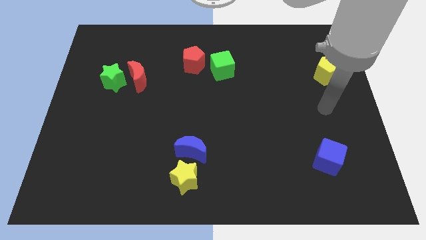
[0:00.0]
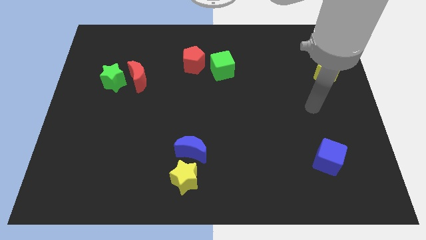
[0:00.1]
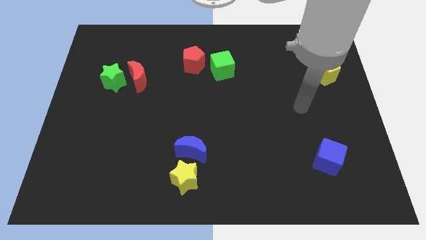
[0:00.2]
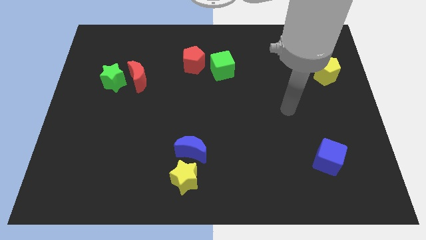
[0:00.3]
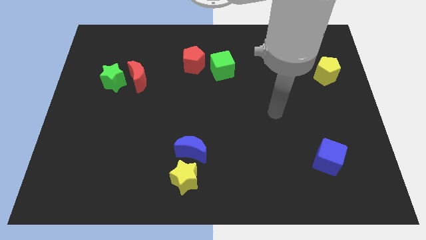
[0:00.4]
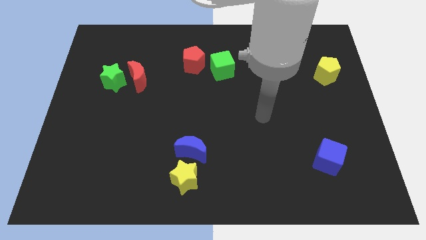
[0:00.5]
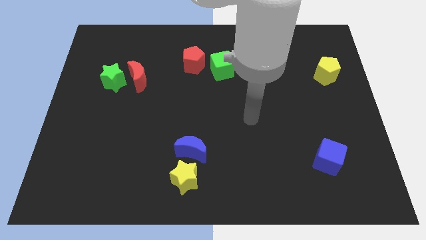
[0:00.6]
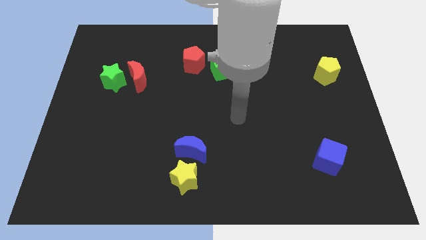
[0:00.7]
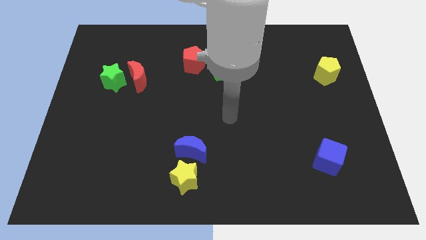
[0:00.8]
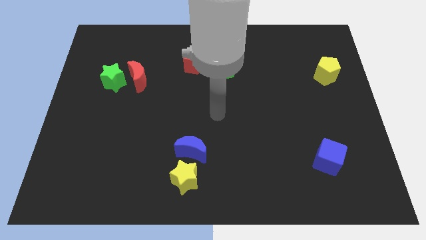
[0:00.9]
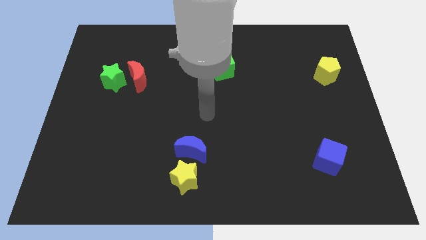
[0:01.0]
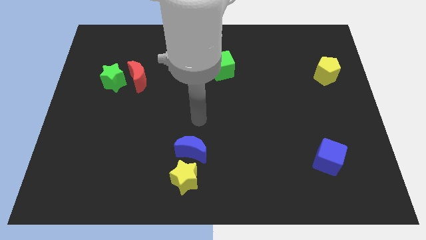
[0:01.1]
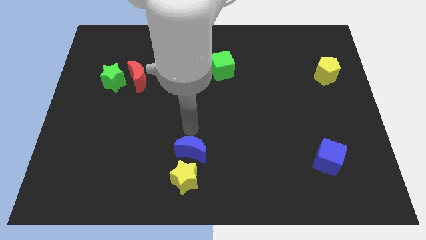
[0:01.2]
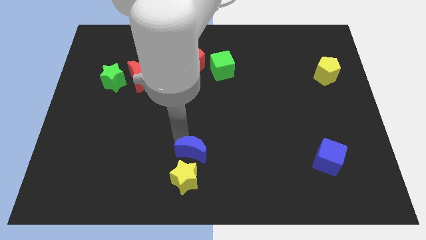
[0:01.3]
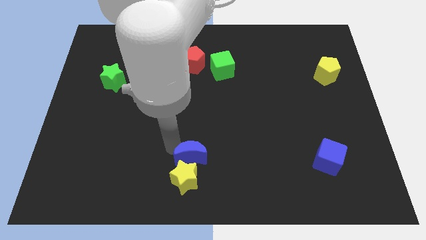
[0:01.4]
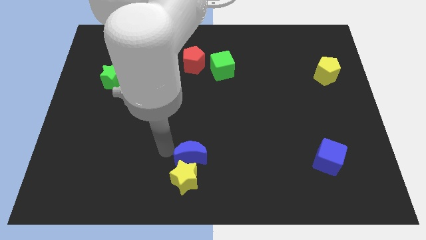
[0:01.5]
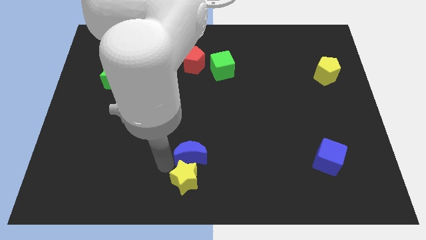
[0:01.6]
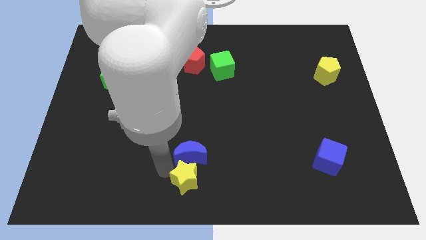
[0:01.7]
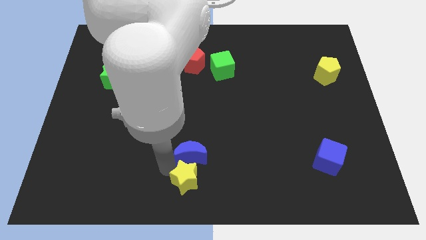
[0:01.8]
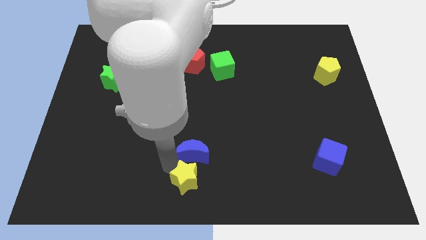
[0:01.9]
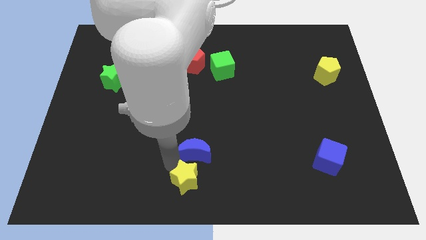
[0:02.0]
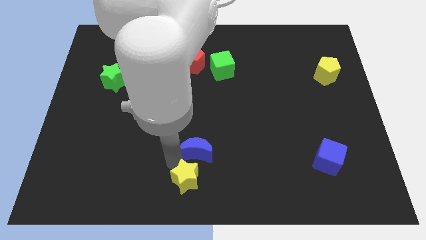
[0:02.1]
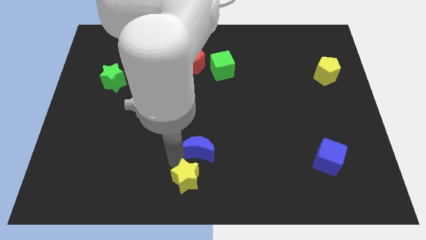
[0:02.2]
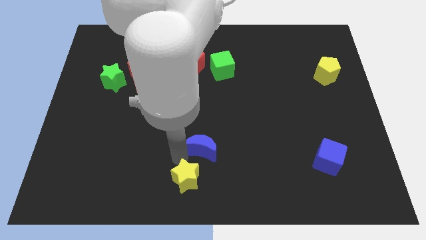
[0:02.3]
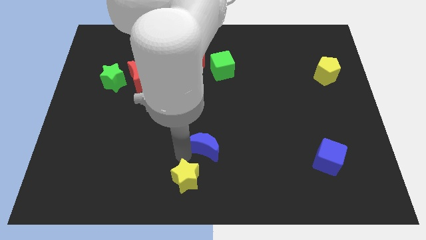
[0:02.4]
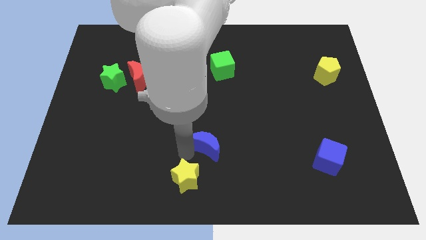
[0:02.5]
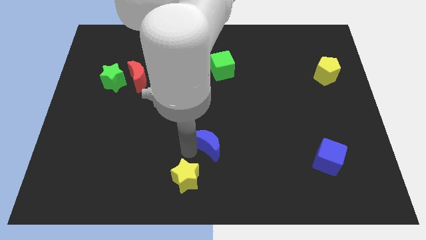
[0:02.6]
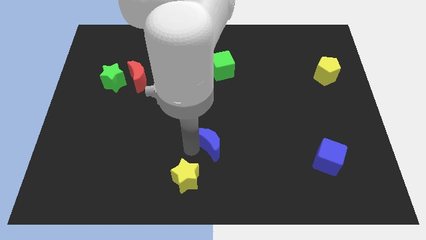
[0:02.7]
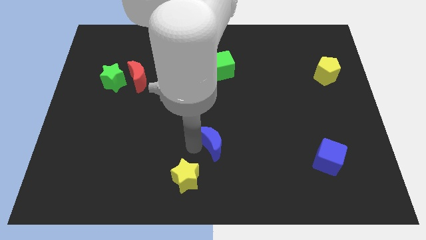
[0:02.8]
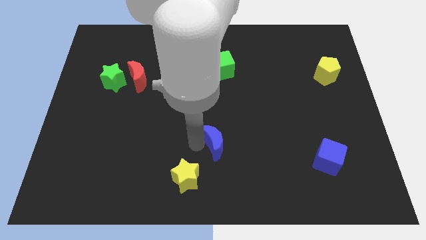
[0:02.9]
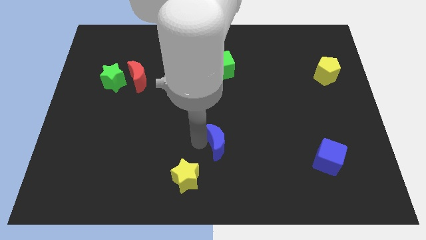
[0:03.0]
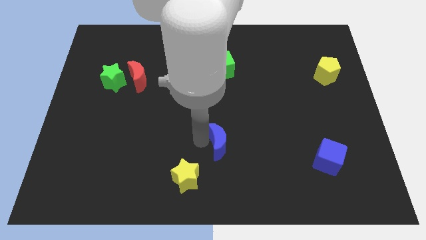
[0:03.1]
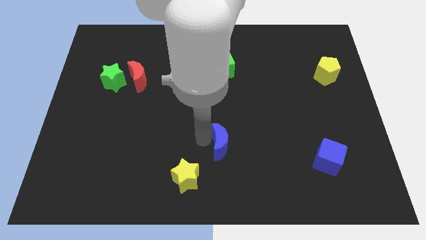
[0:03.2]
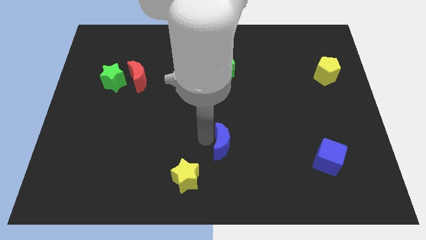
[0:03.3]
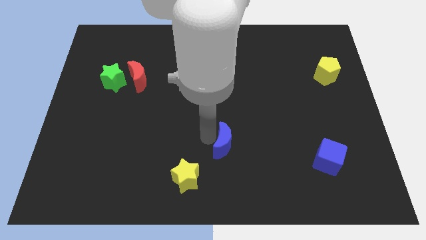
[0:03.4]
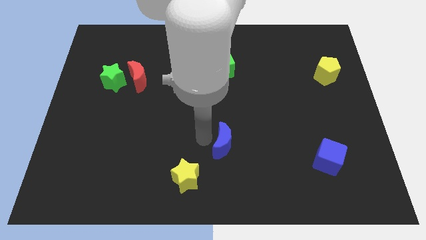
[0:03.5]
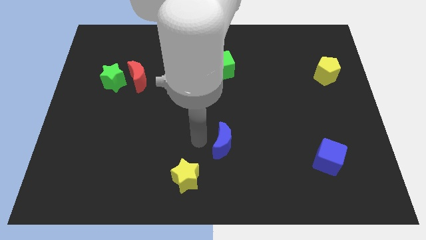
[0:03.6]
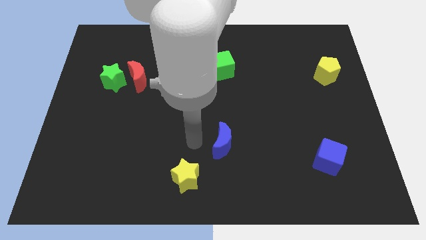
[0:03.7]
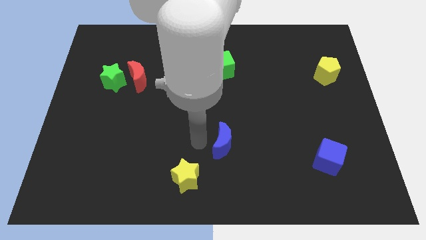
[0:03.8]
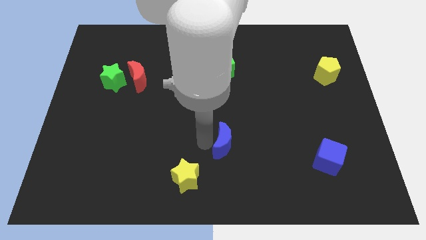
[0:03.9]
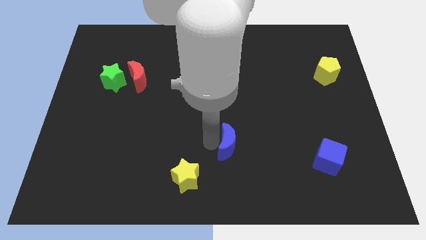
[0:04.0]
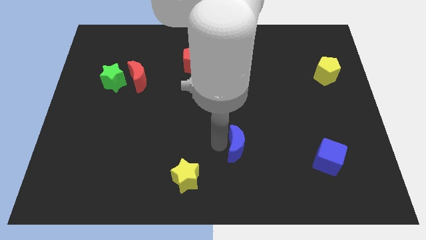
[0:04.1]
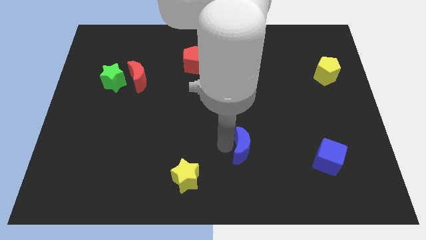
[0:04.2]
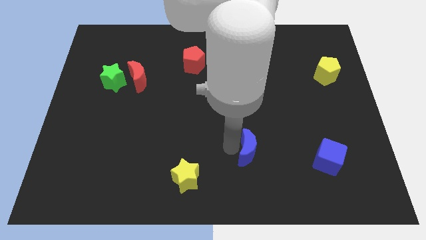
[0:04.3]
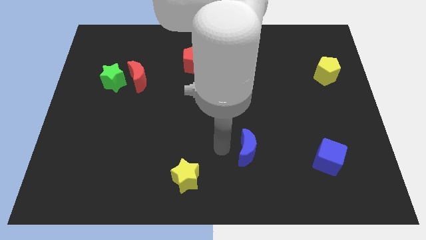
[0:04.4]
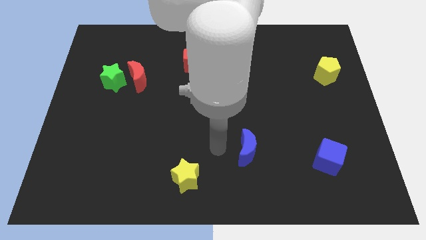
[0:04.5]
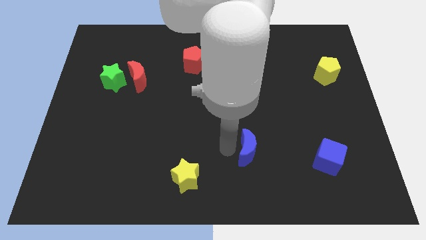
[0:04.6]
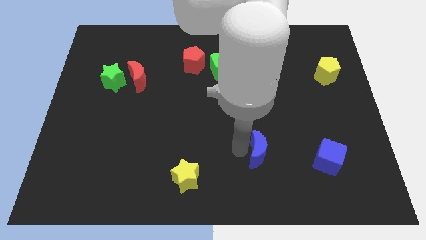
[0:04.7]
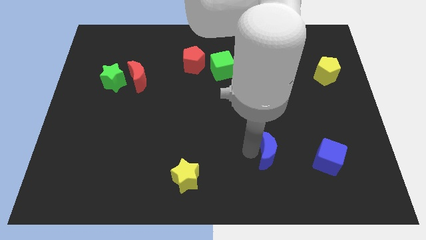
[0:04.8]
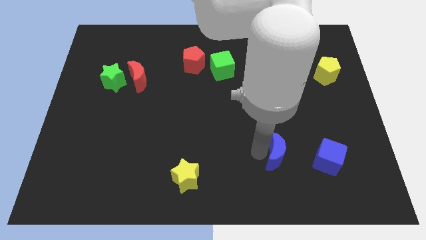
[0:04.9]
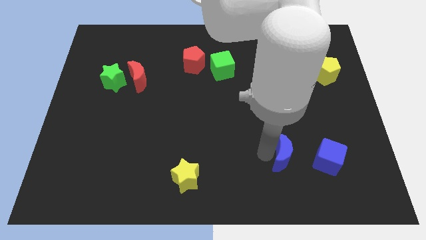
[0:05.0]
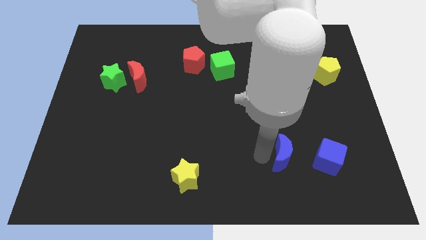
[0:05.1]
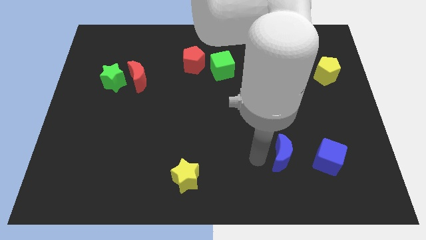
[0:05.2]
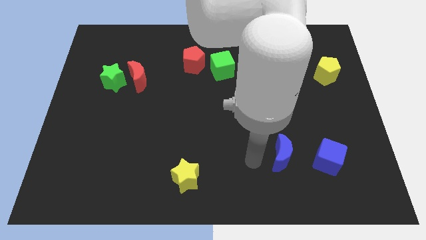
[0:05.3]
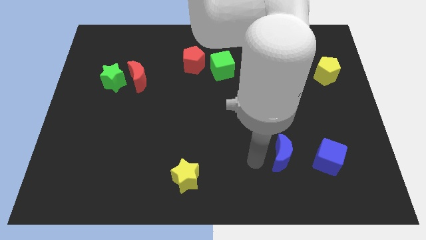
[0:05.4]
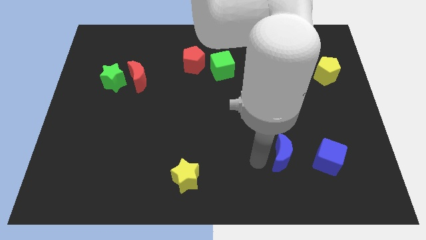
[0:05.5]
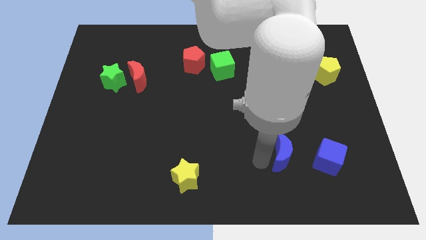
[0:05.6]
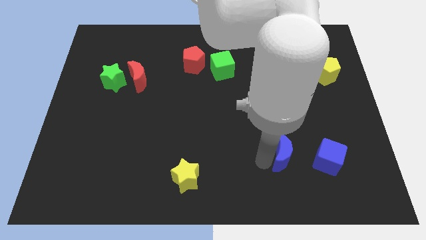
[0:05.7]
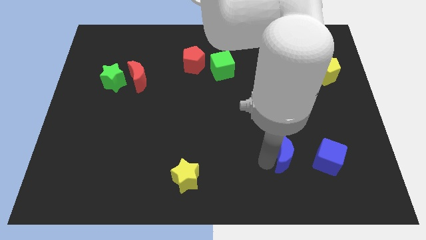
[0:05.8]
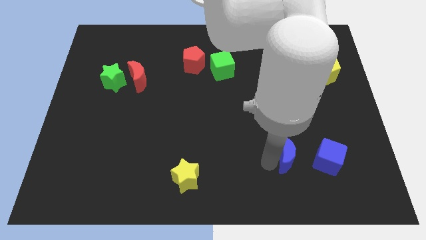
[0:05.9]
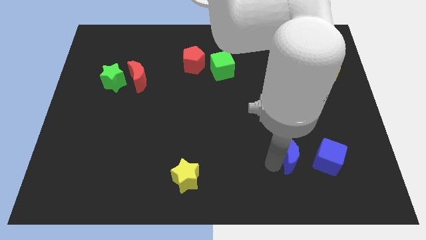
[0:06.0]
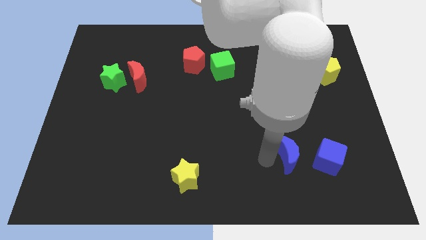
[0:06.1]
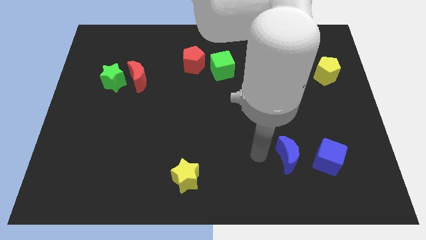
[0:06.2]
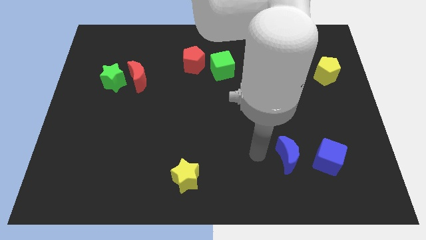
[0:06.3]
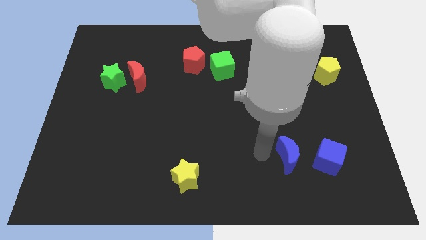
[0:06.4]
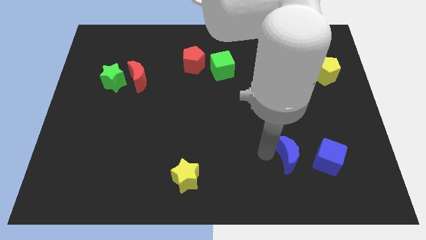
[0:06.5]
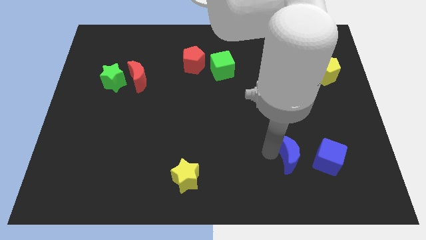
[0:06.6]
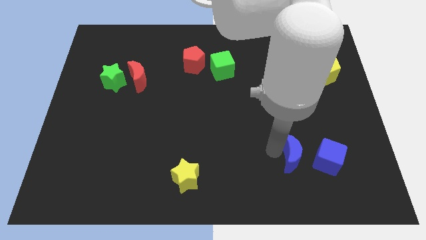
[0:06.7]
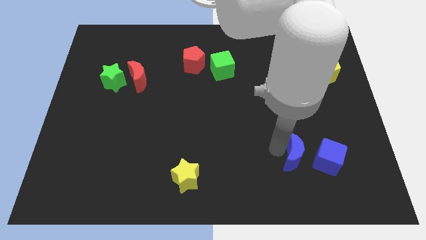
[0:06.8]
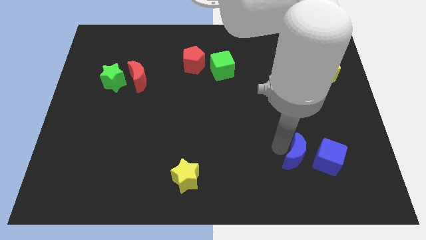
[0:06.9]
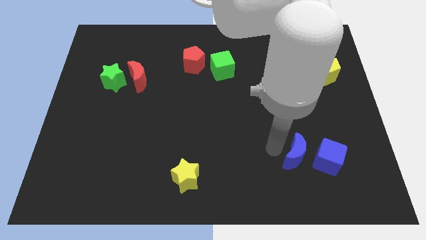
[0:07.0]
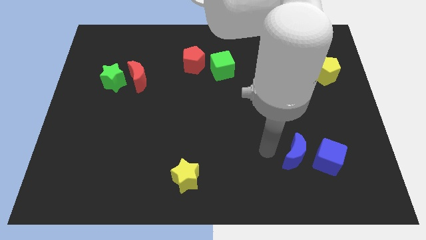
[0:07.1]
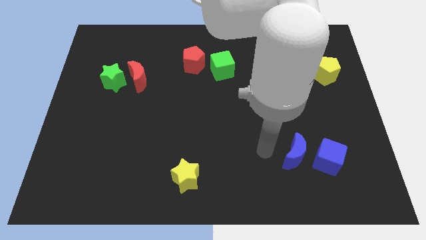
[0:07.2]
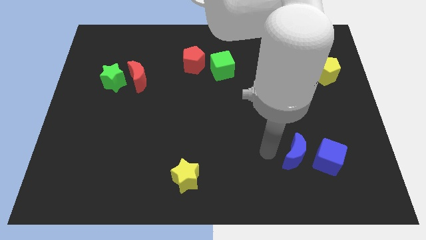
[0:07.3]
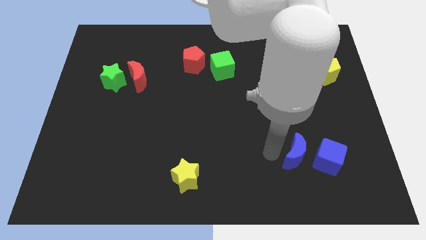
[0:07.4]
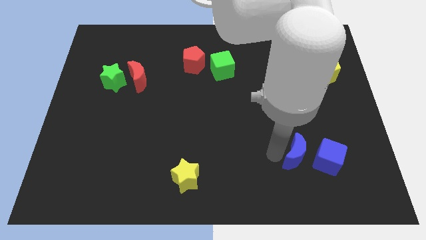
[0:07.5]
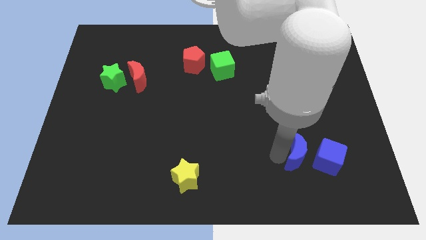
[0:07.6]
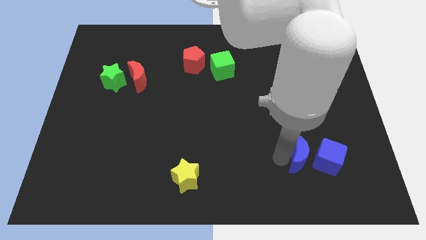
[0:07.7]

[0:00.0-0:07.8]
push the blue moon to the blue cube

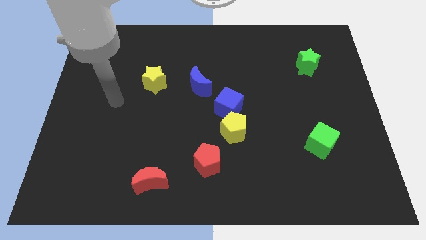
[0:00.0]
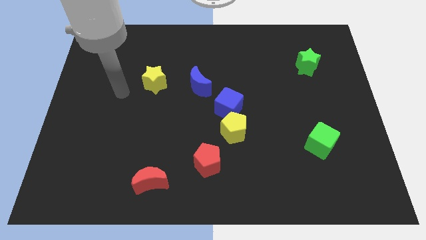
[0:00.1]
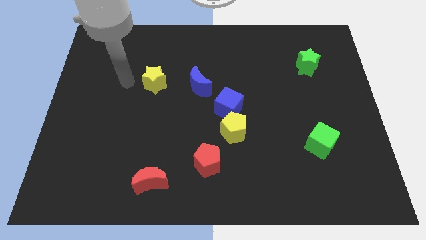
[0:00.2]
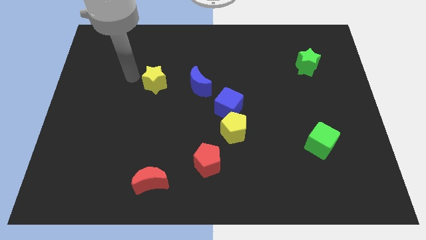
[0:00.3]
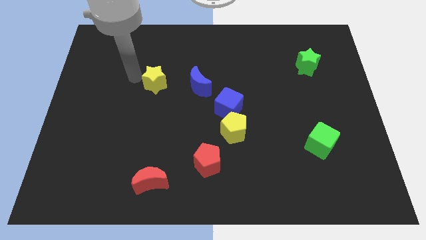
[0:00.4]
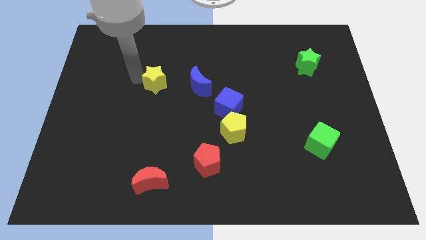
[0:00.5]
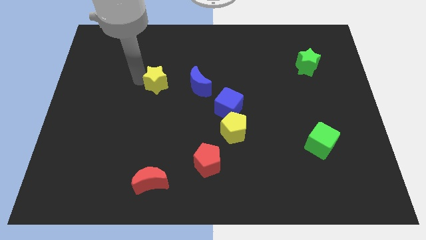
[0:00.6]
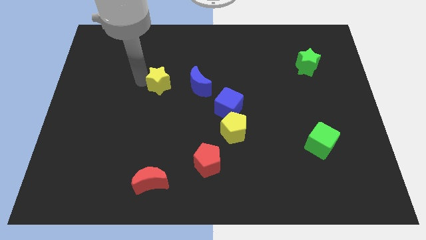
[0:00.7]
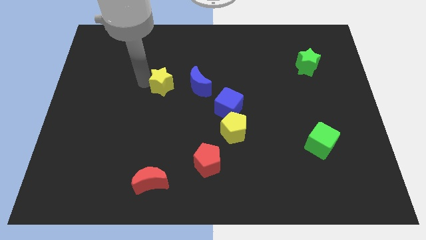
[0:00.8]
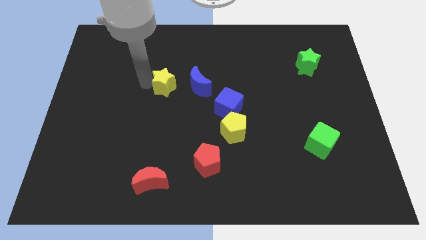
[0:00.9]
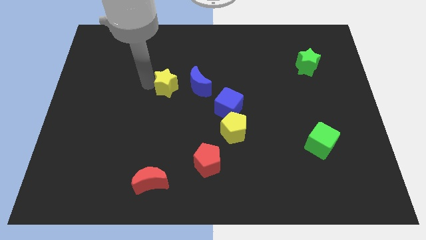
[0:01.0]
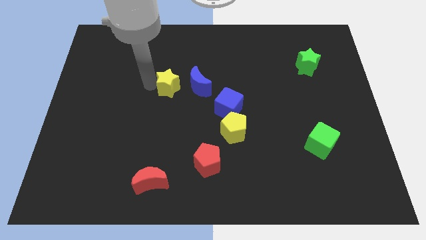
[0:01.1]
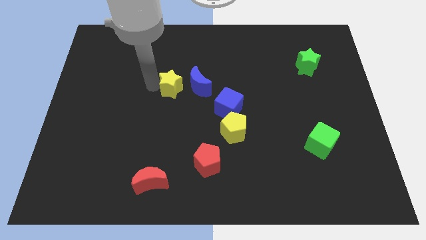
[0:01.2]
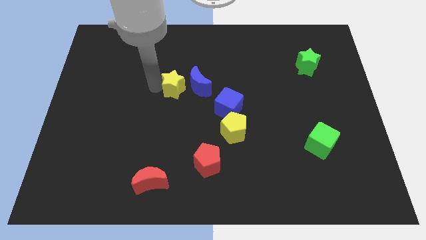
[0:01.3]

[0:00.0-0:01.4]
put the yellow star close to the blue moon
